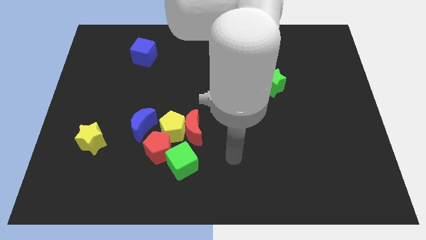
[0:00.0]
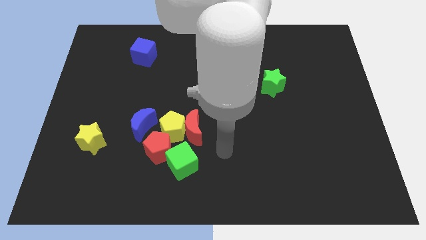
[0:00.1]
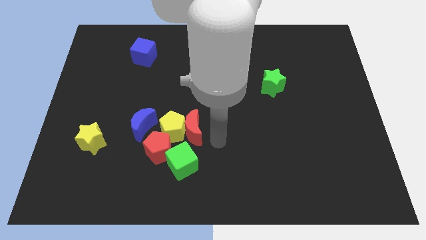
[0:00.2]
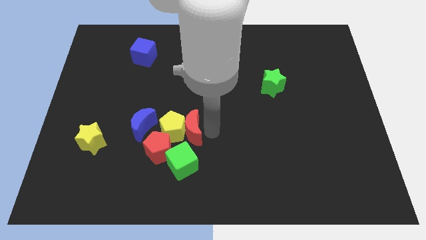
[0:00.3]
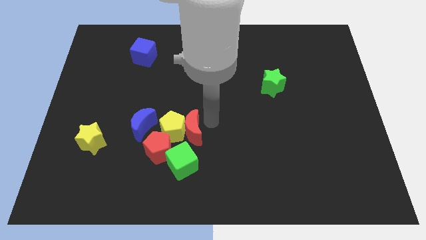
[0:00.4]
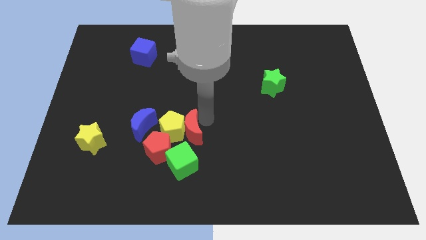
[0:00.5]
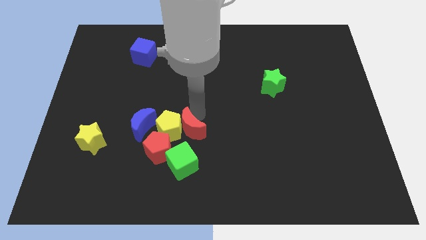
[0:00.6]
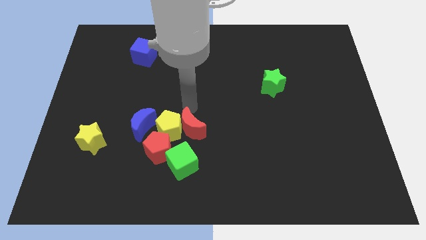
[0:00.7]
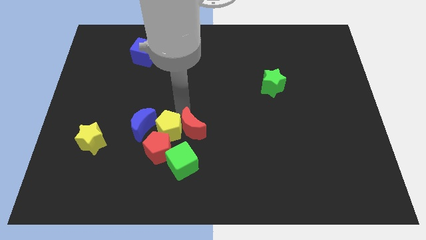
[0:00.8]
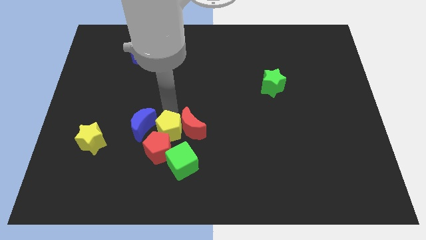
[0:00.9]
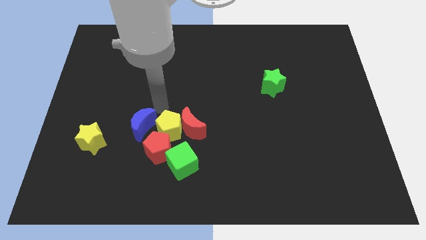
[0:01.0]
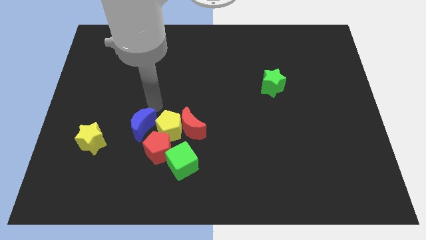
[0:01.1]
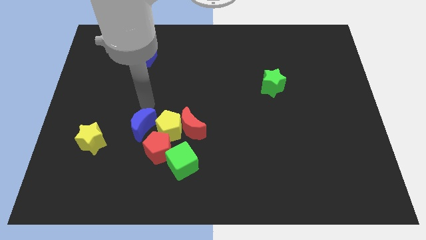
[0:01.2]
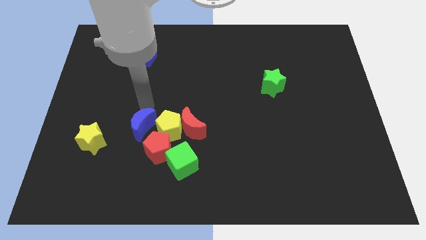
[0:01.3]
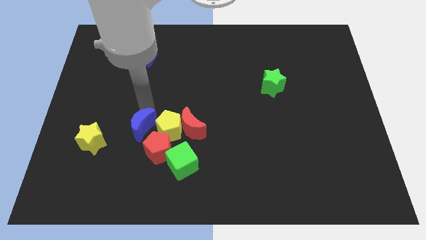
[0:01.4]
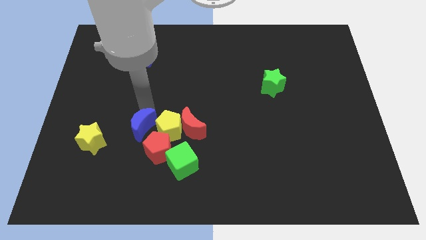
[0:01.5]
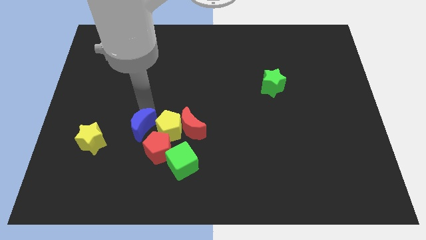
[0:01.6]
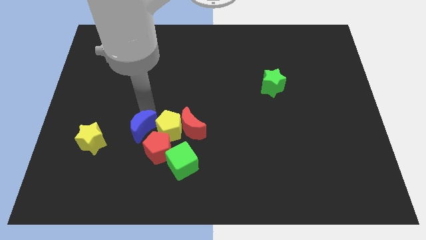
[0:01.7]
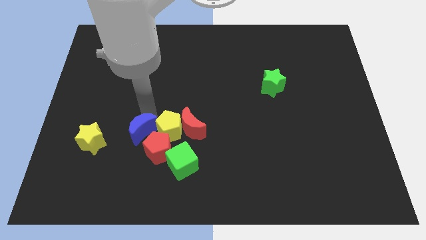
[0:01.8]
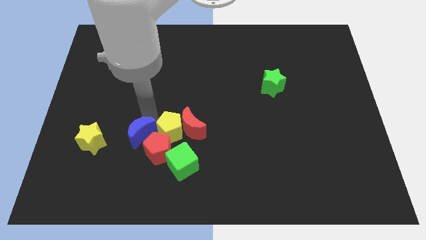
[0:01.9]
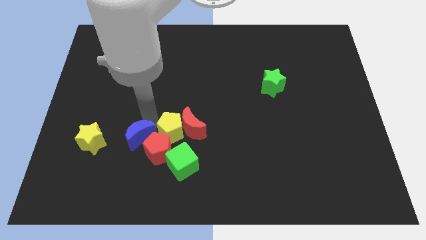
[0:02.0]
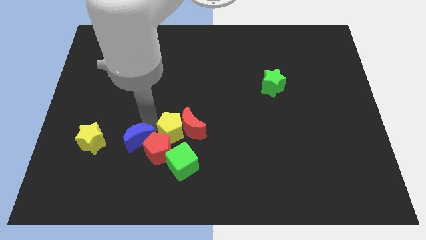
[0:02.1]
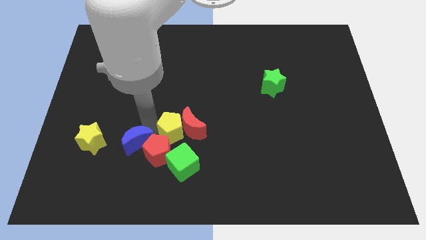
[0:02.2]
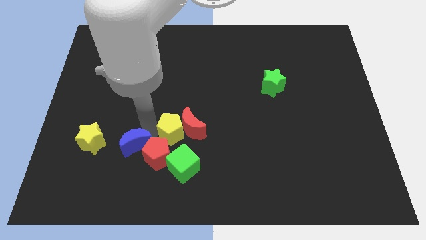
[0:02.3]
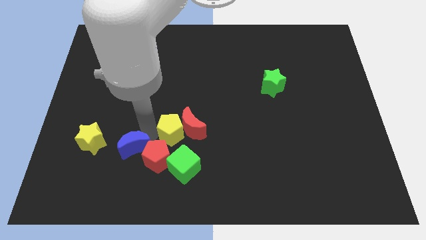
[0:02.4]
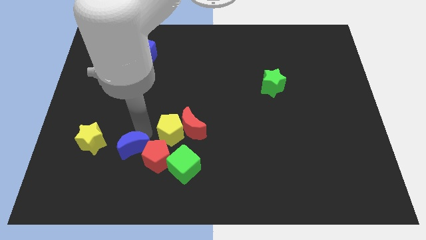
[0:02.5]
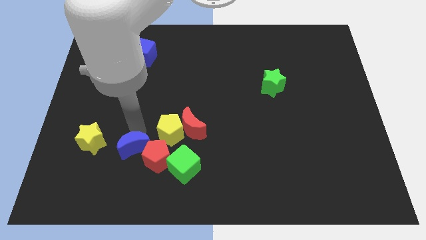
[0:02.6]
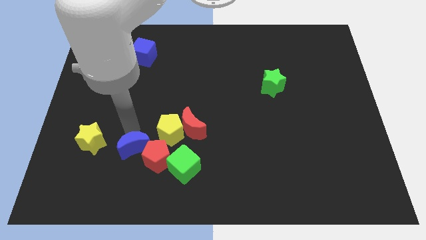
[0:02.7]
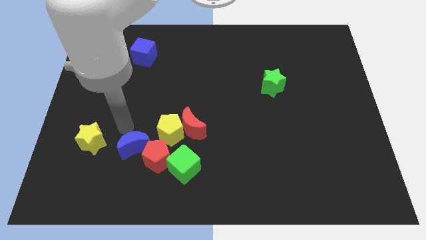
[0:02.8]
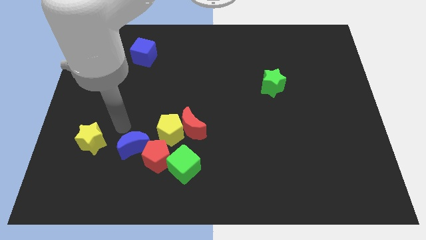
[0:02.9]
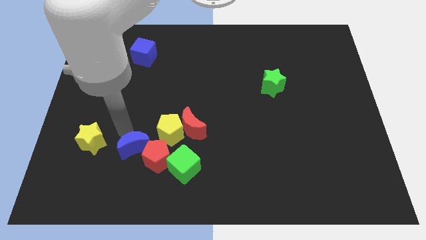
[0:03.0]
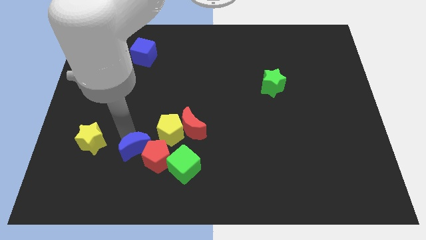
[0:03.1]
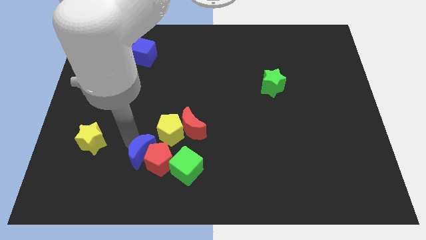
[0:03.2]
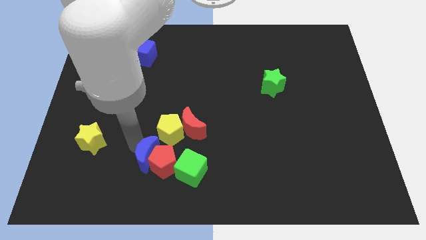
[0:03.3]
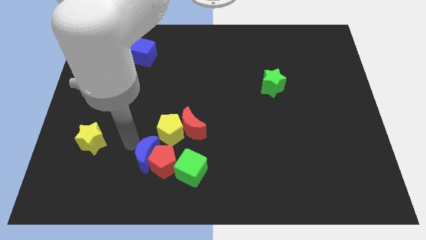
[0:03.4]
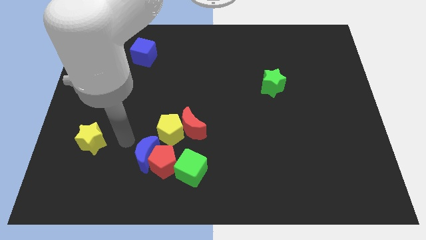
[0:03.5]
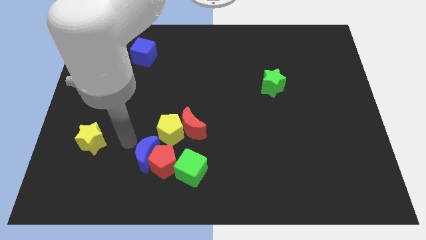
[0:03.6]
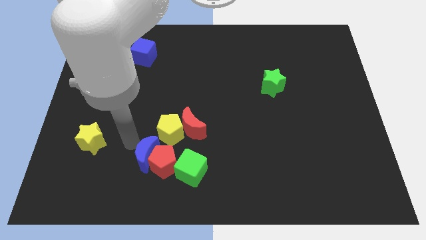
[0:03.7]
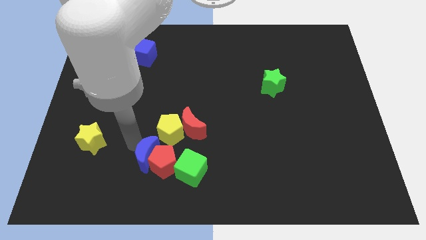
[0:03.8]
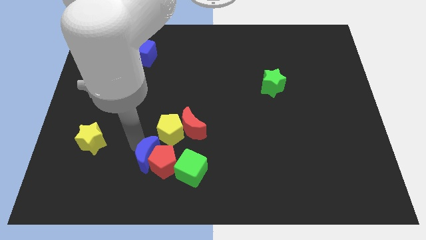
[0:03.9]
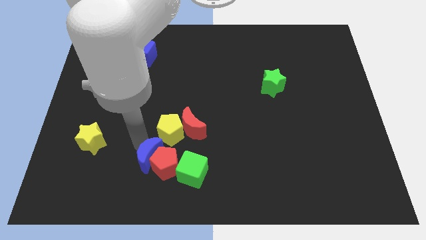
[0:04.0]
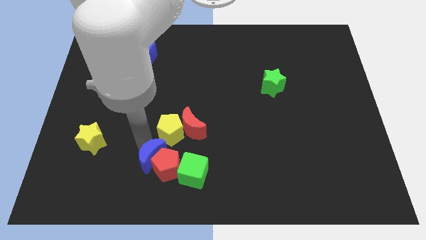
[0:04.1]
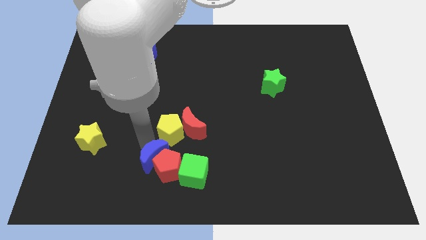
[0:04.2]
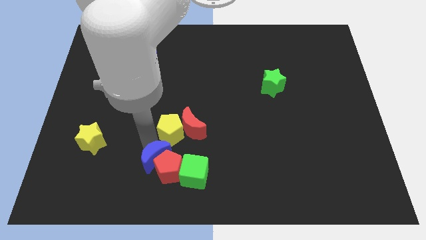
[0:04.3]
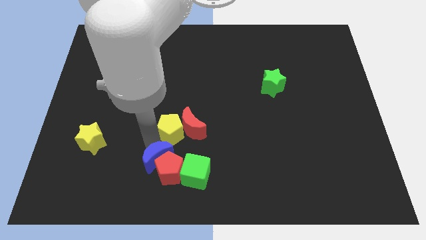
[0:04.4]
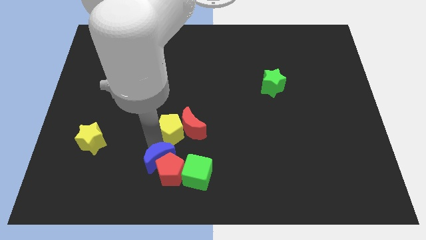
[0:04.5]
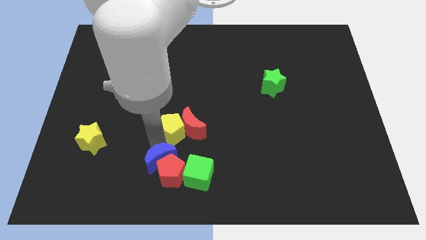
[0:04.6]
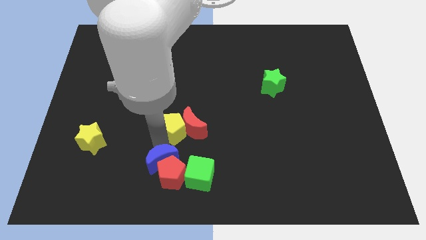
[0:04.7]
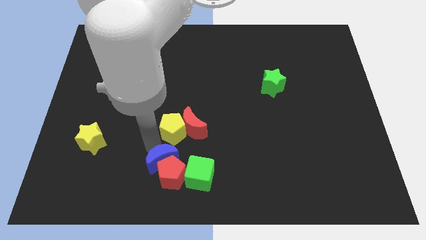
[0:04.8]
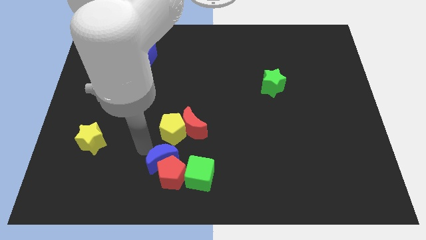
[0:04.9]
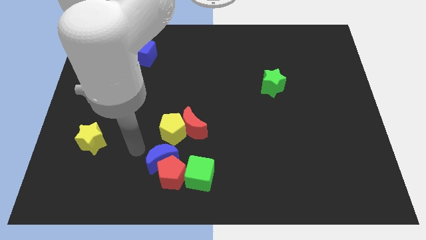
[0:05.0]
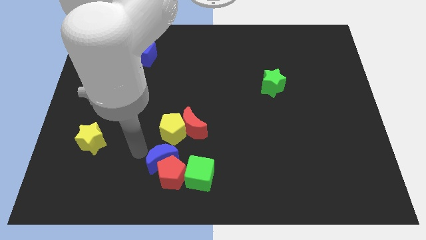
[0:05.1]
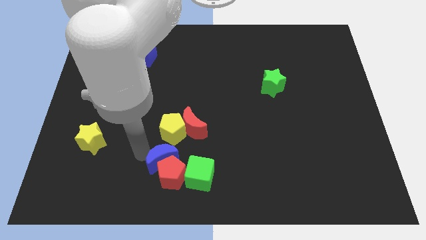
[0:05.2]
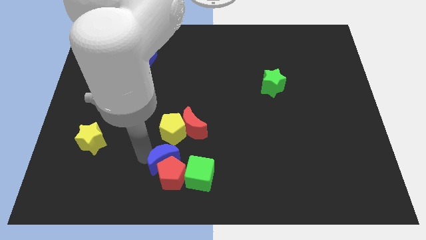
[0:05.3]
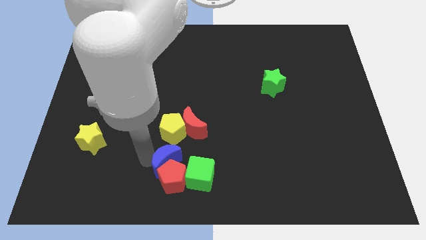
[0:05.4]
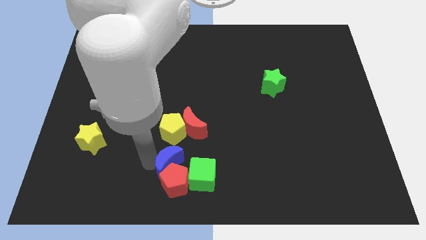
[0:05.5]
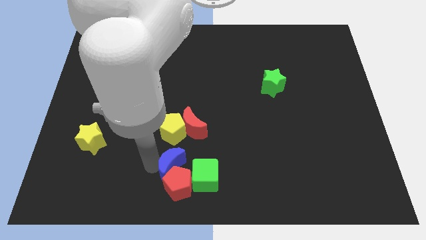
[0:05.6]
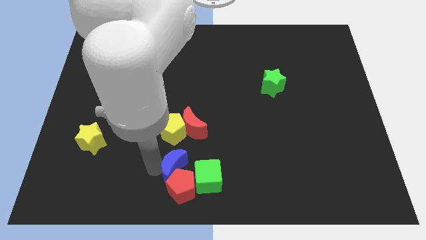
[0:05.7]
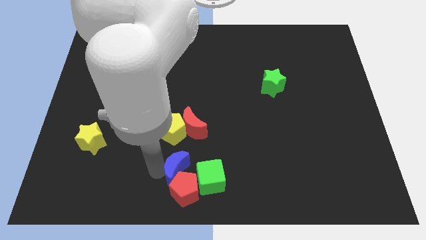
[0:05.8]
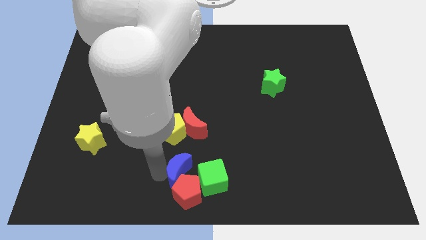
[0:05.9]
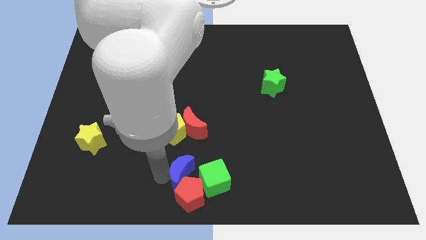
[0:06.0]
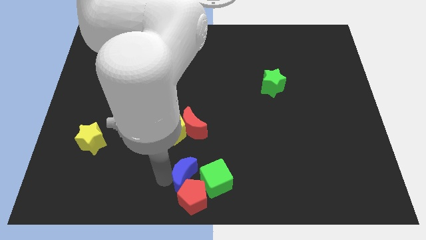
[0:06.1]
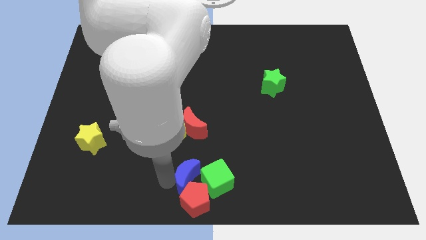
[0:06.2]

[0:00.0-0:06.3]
put the blue moon to the green cube
